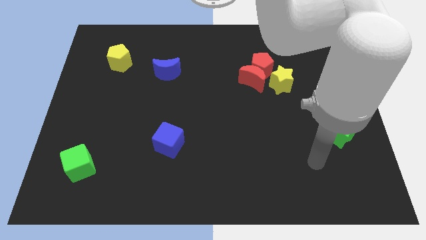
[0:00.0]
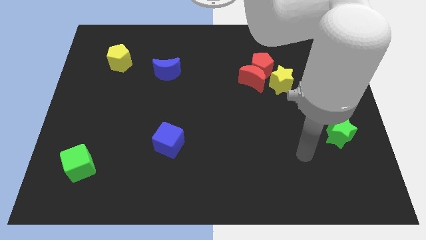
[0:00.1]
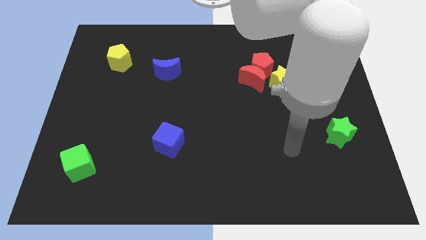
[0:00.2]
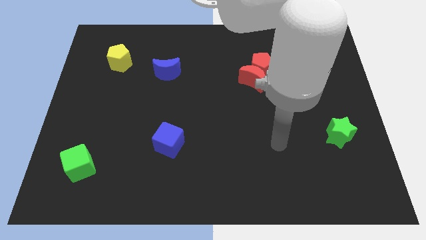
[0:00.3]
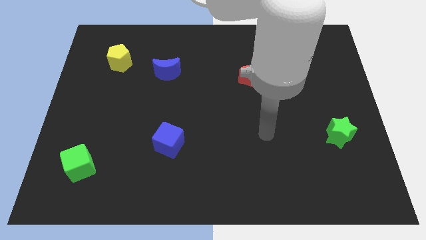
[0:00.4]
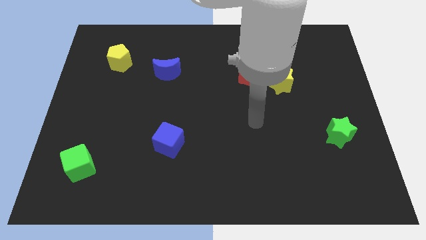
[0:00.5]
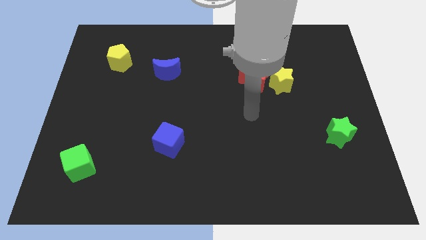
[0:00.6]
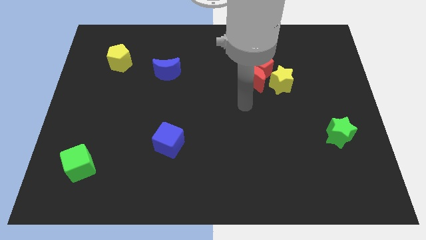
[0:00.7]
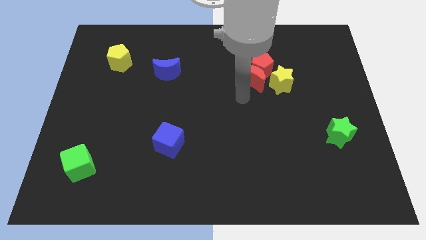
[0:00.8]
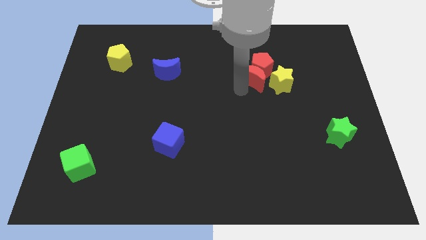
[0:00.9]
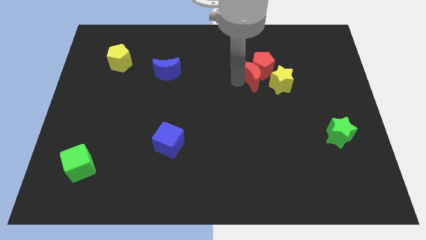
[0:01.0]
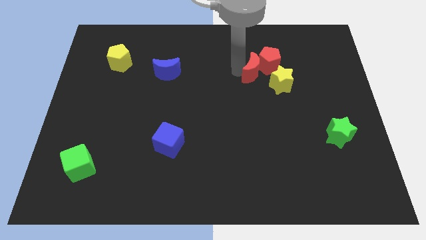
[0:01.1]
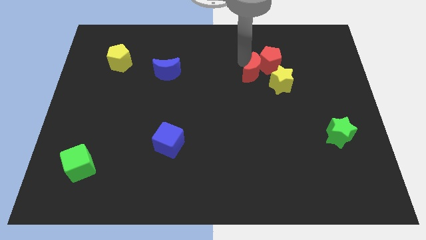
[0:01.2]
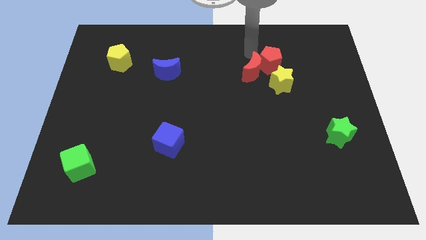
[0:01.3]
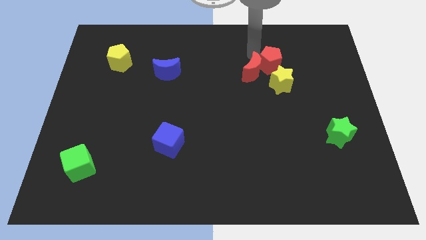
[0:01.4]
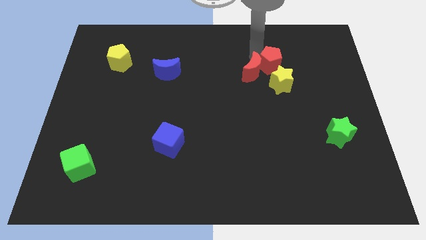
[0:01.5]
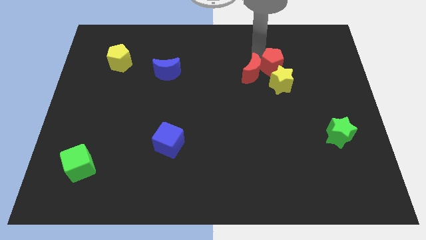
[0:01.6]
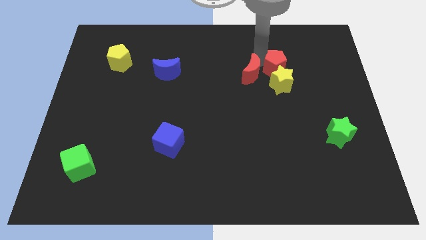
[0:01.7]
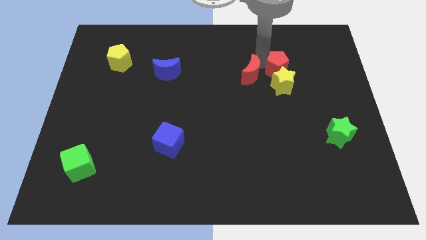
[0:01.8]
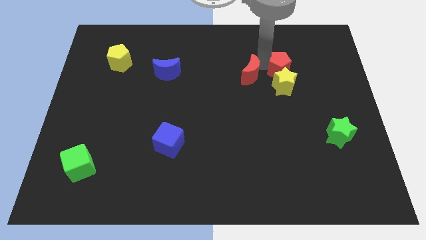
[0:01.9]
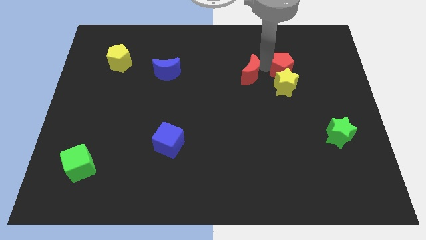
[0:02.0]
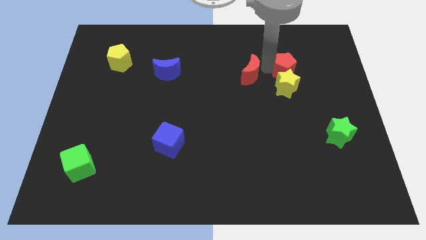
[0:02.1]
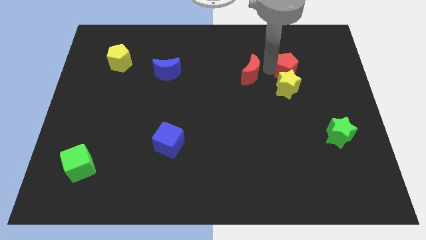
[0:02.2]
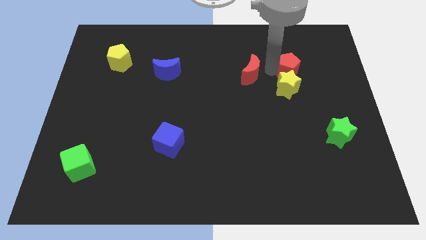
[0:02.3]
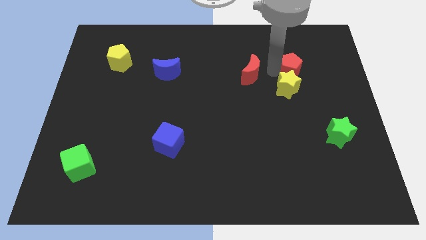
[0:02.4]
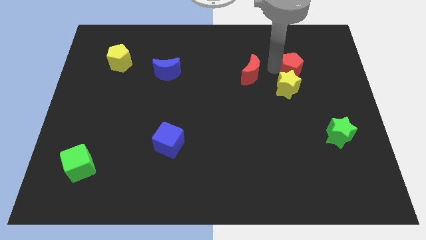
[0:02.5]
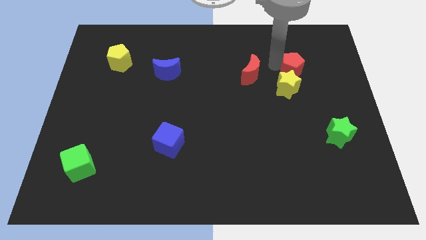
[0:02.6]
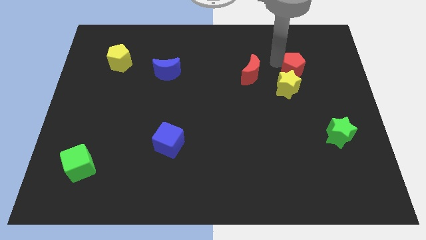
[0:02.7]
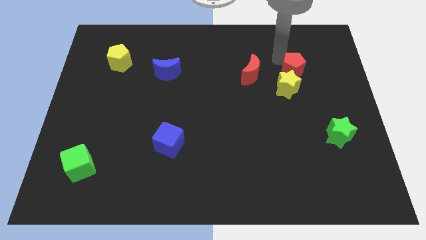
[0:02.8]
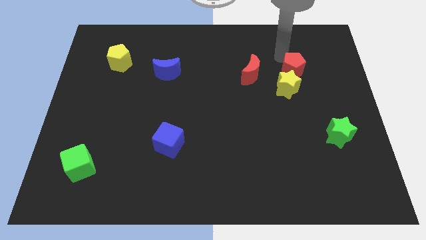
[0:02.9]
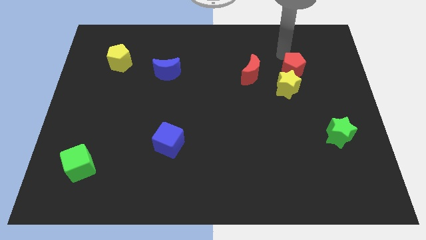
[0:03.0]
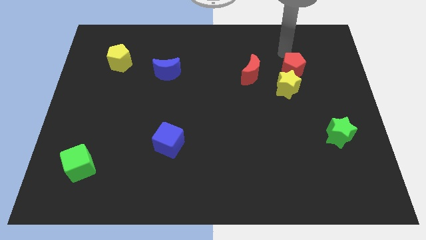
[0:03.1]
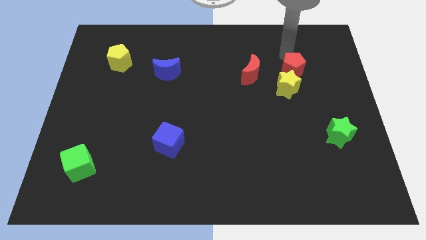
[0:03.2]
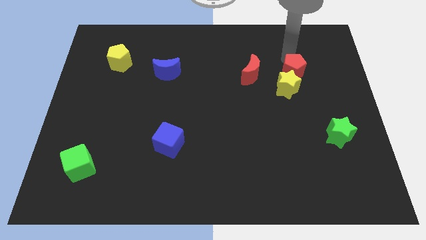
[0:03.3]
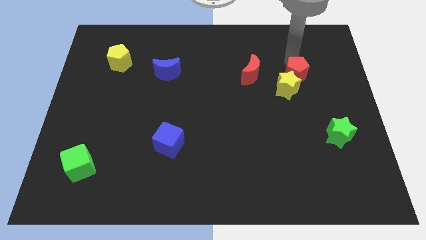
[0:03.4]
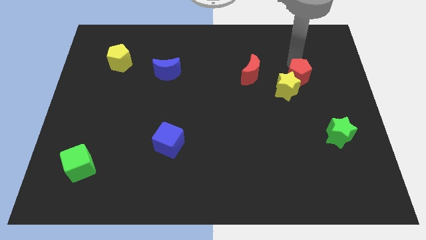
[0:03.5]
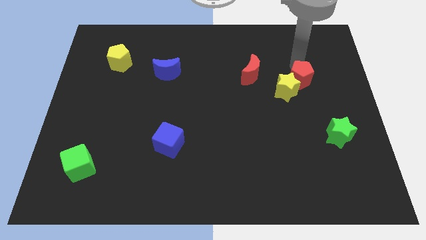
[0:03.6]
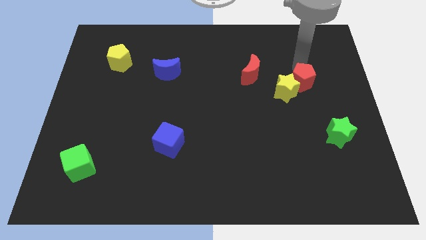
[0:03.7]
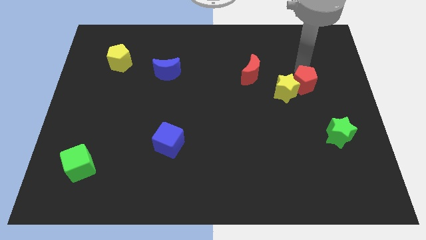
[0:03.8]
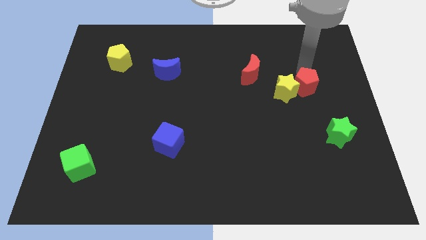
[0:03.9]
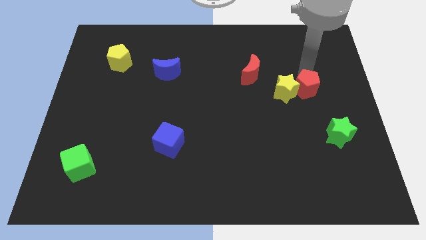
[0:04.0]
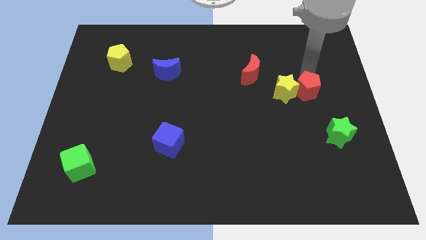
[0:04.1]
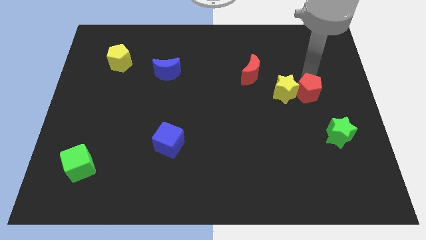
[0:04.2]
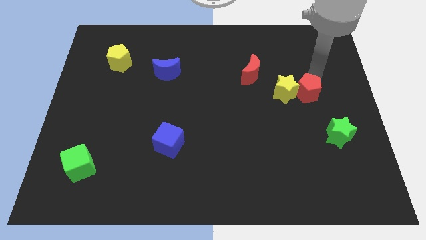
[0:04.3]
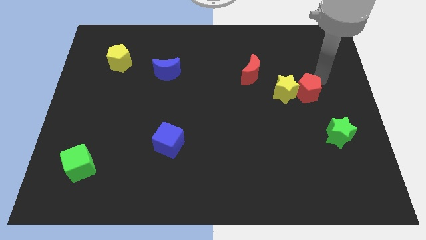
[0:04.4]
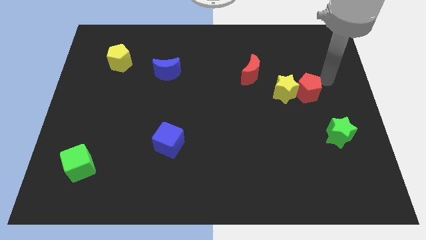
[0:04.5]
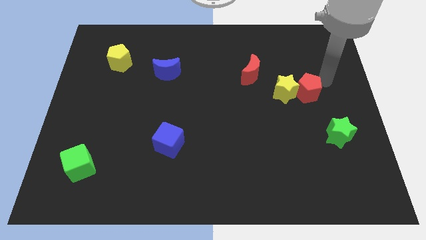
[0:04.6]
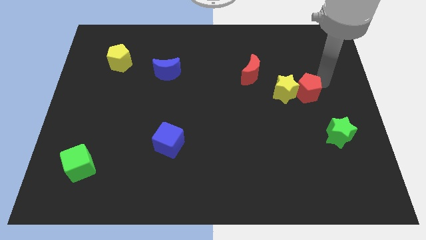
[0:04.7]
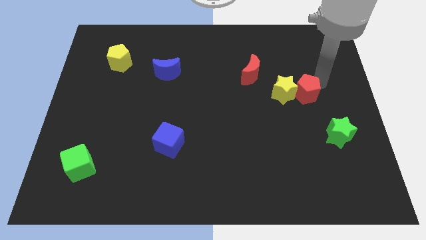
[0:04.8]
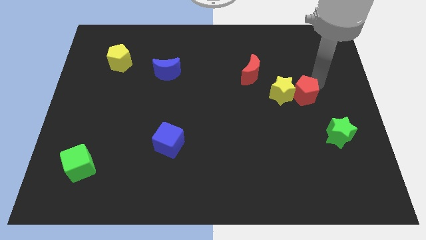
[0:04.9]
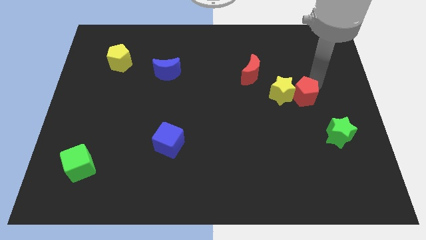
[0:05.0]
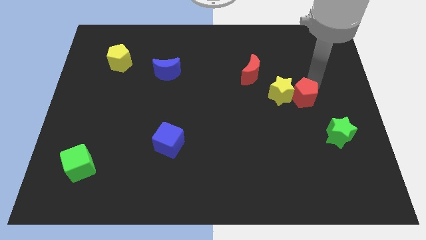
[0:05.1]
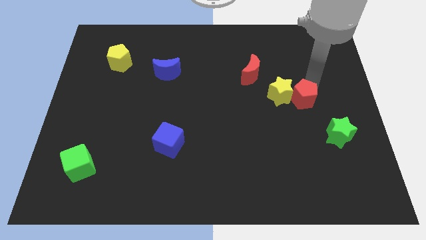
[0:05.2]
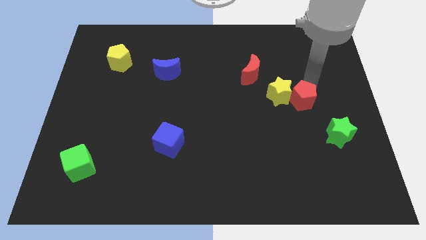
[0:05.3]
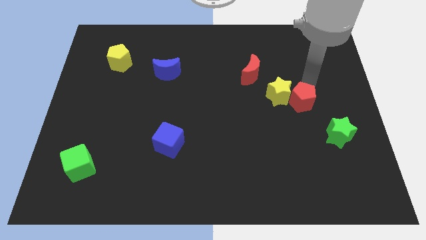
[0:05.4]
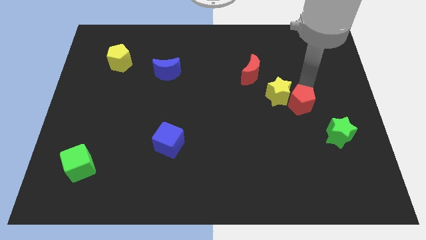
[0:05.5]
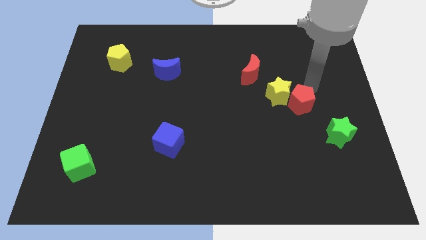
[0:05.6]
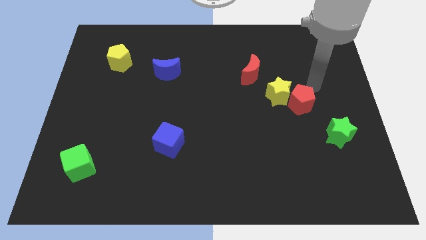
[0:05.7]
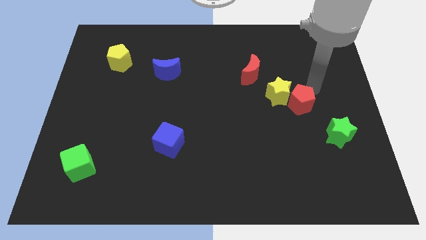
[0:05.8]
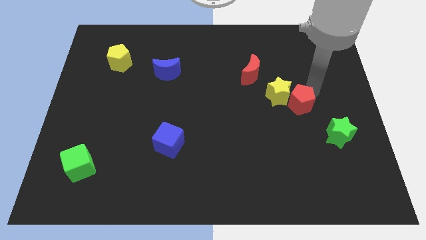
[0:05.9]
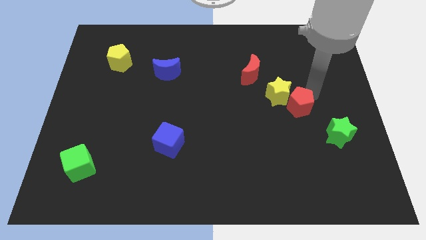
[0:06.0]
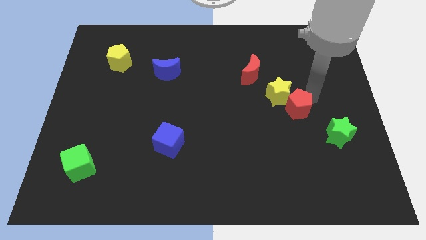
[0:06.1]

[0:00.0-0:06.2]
slide the red pentagon below the yellow star
